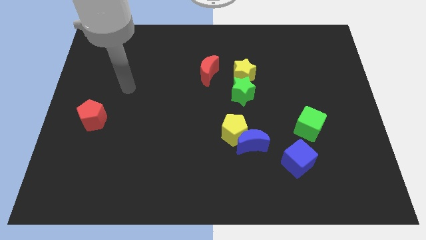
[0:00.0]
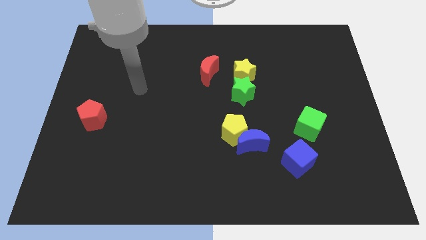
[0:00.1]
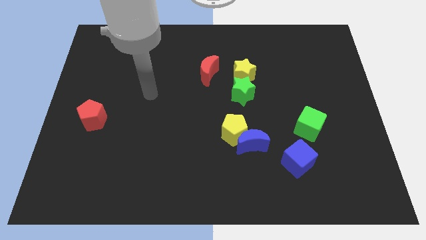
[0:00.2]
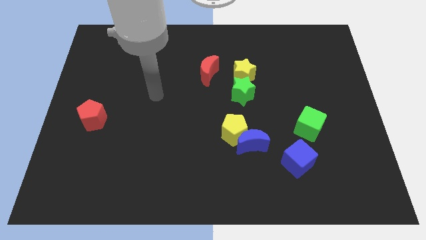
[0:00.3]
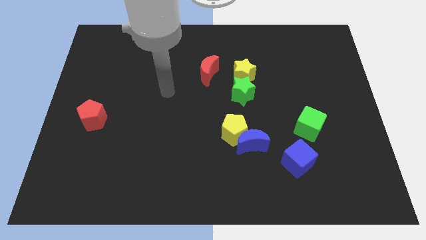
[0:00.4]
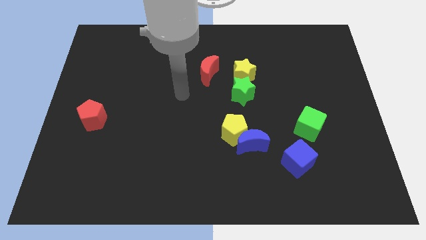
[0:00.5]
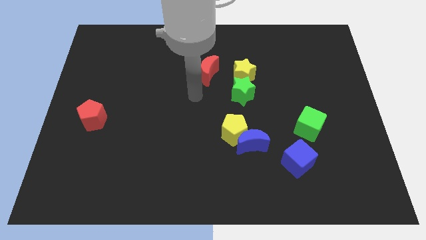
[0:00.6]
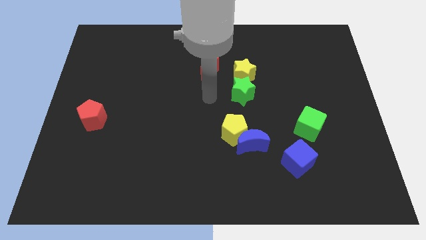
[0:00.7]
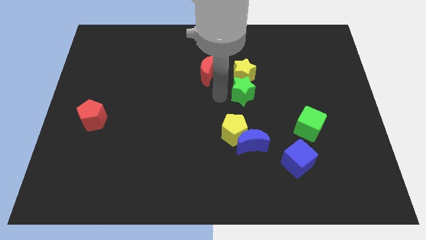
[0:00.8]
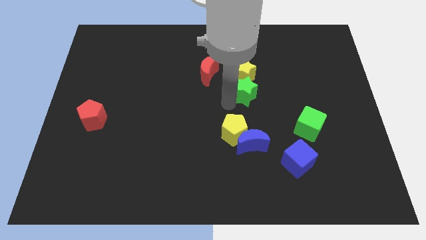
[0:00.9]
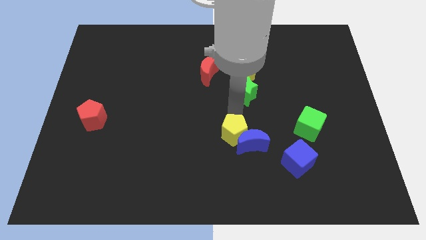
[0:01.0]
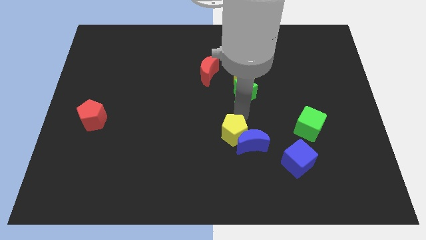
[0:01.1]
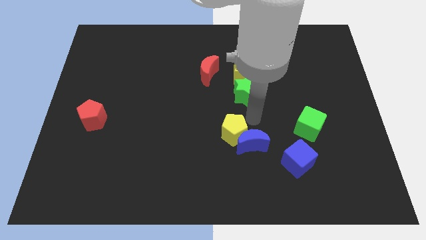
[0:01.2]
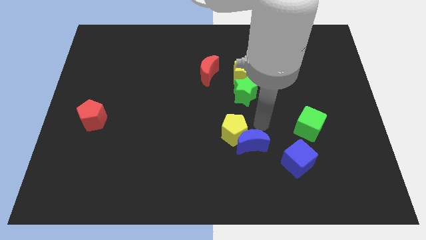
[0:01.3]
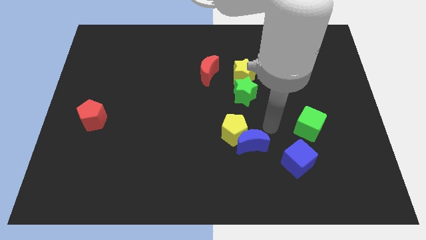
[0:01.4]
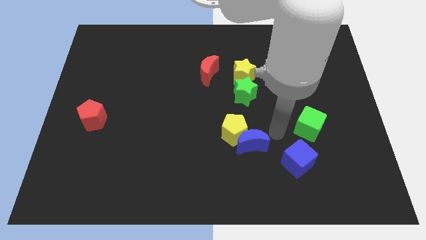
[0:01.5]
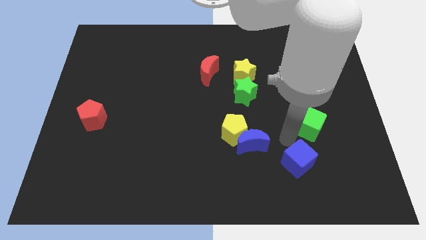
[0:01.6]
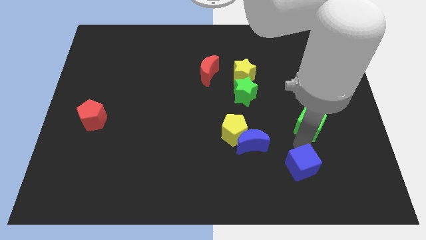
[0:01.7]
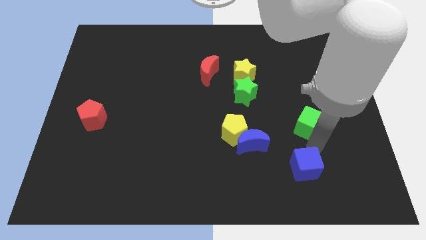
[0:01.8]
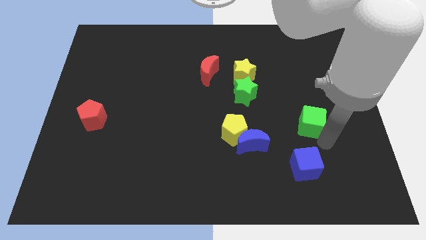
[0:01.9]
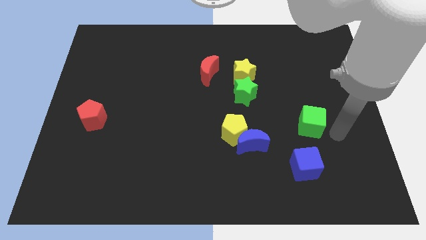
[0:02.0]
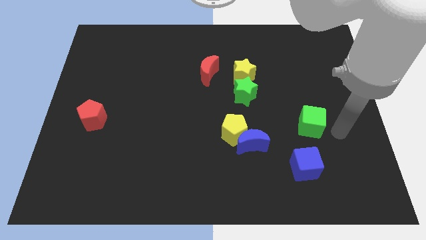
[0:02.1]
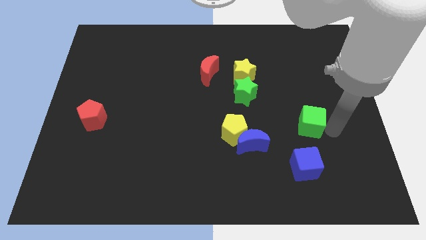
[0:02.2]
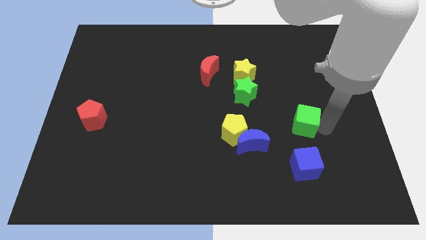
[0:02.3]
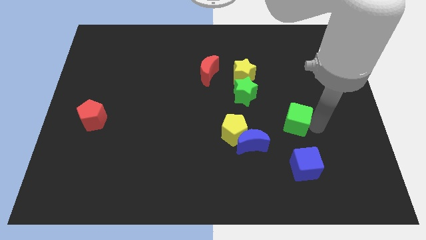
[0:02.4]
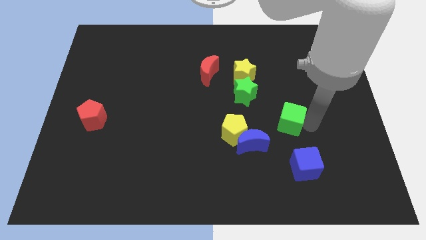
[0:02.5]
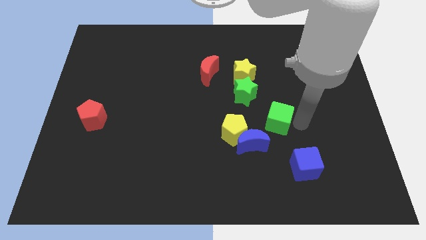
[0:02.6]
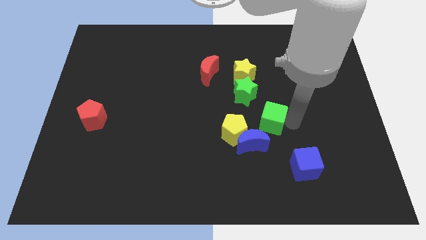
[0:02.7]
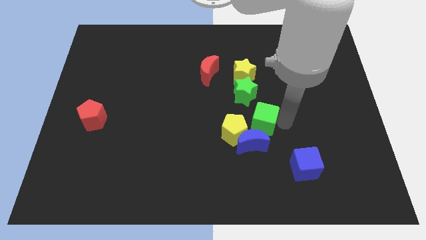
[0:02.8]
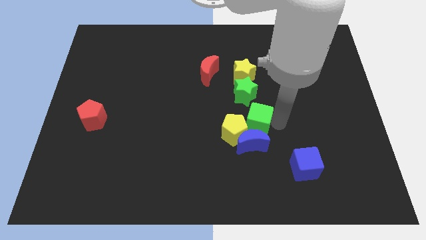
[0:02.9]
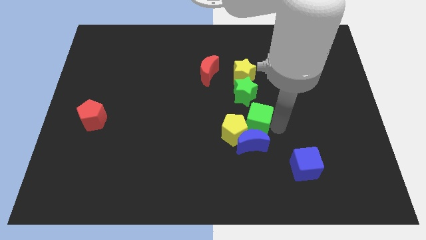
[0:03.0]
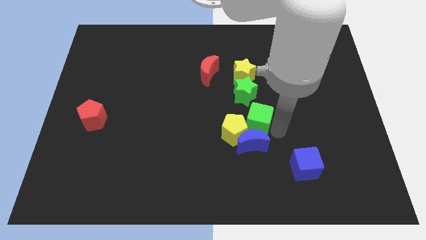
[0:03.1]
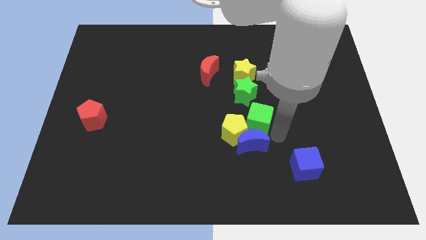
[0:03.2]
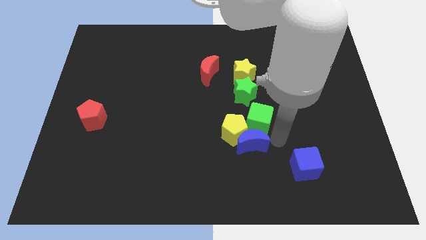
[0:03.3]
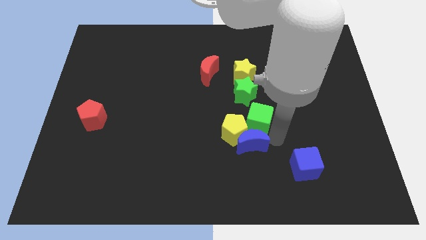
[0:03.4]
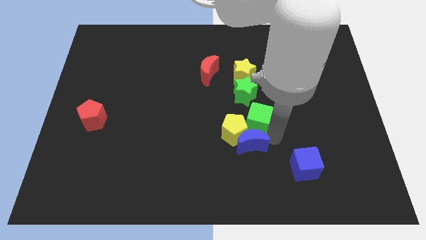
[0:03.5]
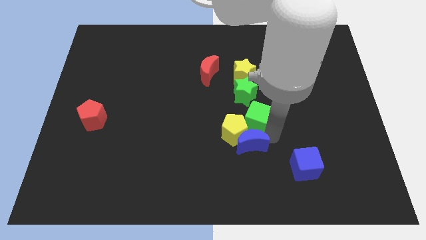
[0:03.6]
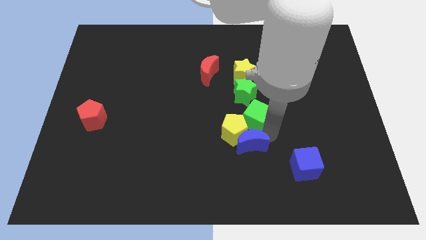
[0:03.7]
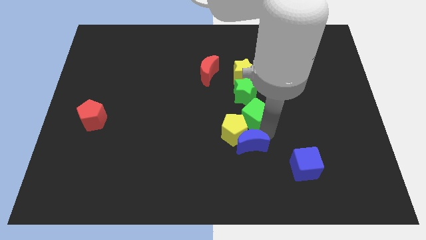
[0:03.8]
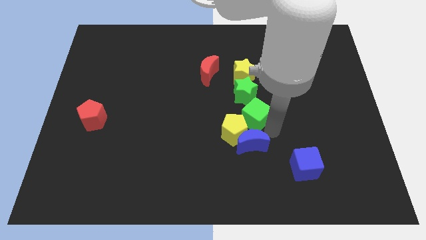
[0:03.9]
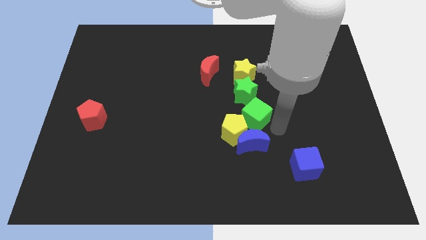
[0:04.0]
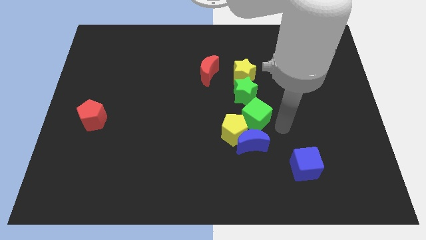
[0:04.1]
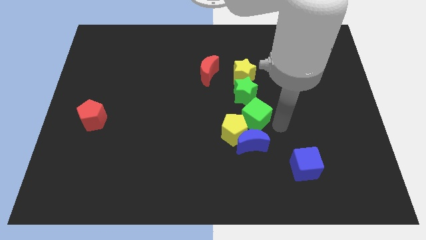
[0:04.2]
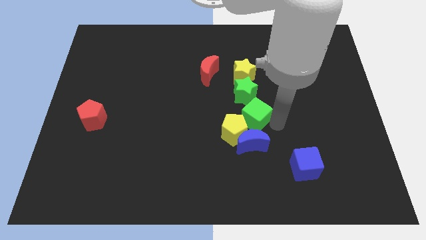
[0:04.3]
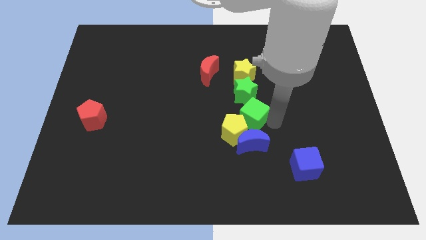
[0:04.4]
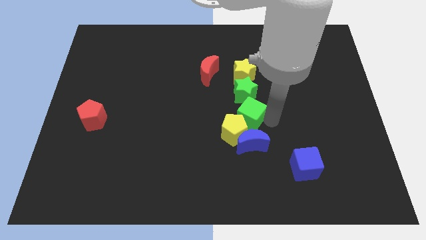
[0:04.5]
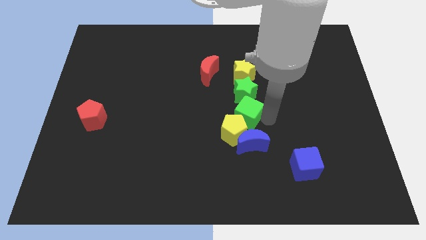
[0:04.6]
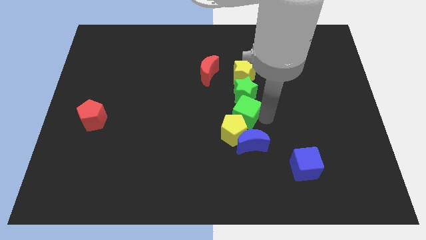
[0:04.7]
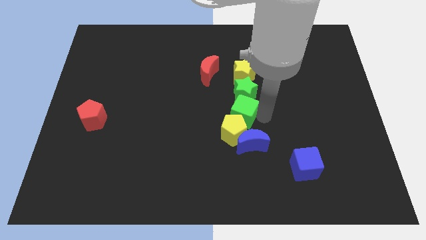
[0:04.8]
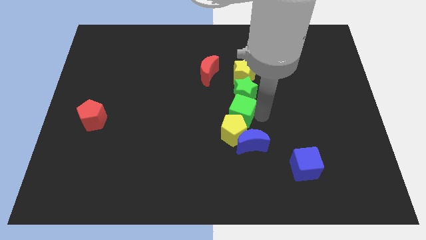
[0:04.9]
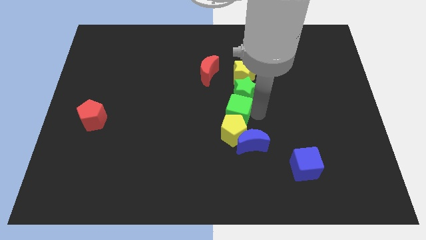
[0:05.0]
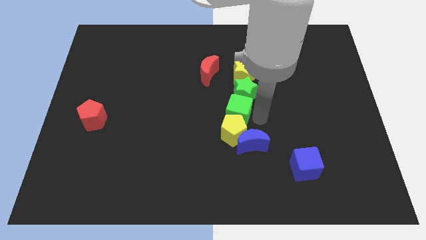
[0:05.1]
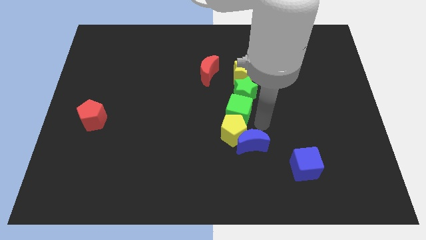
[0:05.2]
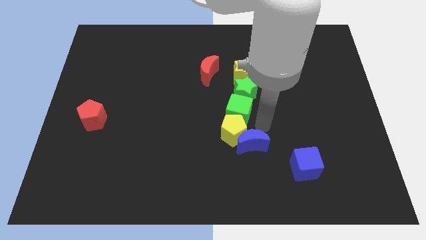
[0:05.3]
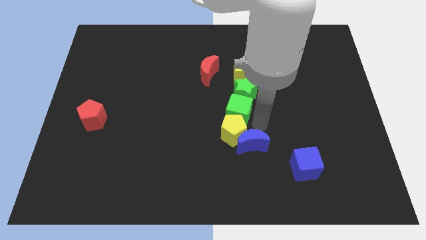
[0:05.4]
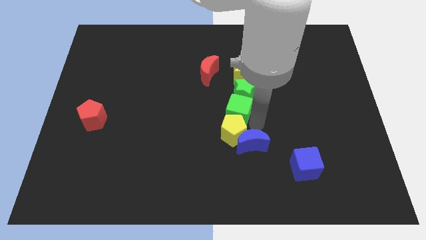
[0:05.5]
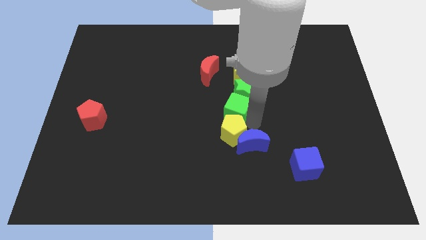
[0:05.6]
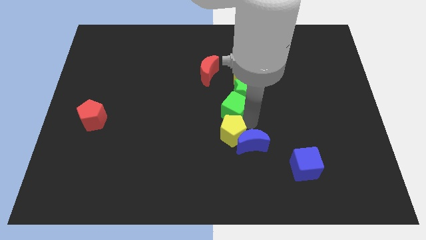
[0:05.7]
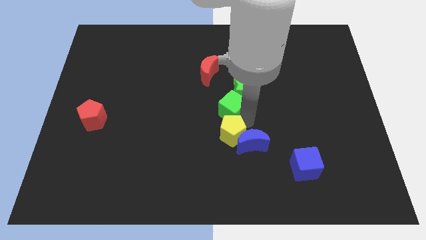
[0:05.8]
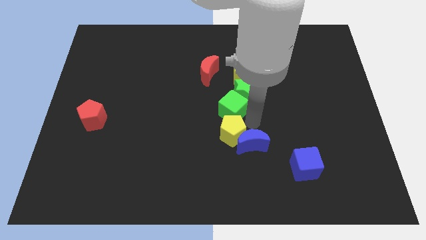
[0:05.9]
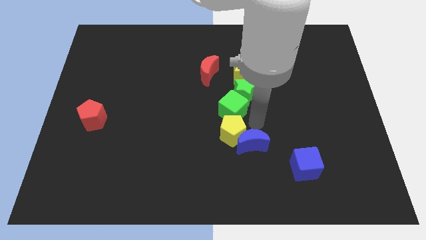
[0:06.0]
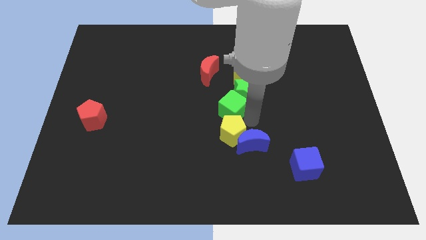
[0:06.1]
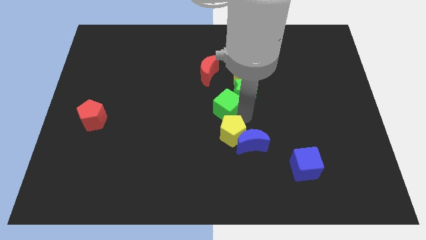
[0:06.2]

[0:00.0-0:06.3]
push the green cube to the left of the green star

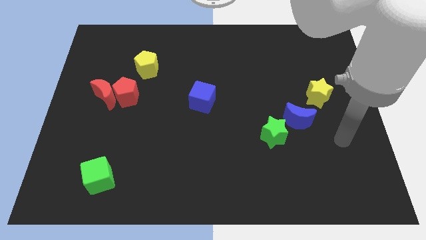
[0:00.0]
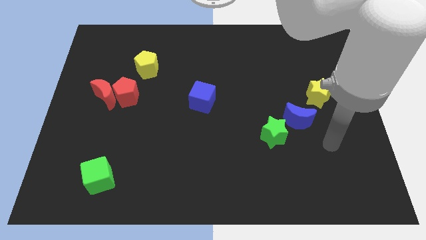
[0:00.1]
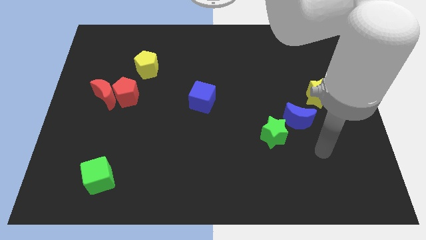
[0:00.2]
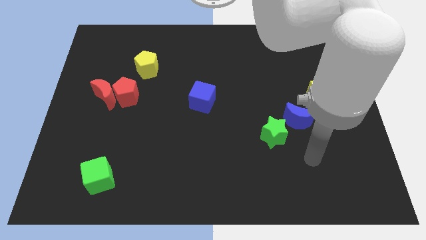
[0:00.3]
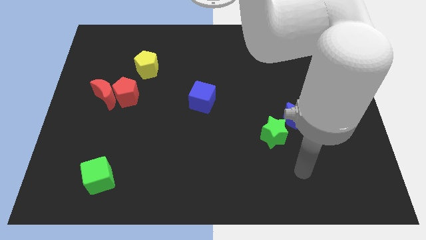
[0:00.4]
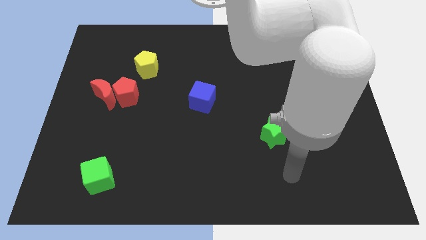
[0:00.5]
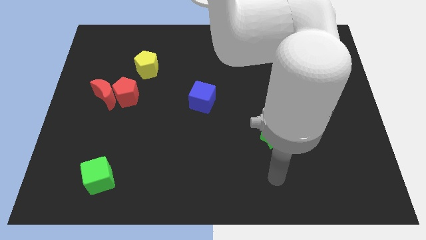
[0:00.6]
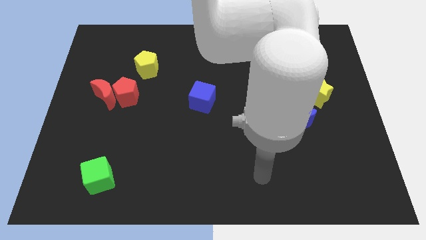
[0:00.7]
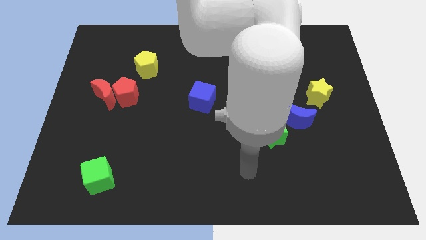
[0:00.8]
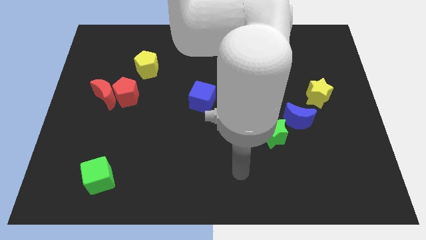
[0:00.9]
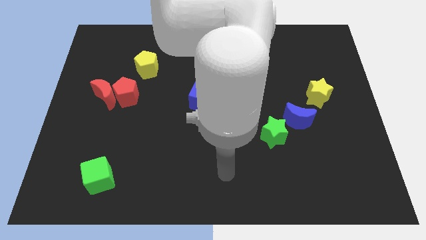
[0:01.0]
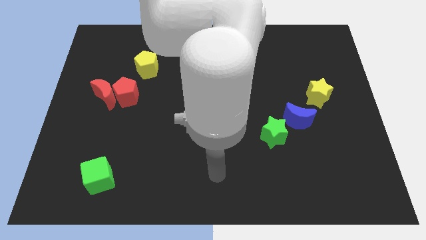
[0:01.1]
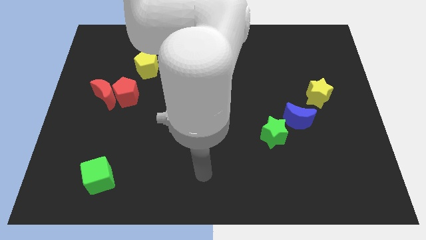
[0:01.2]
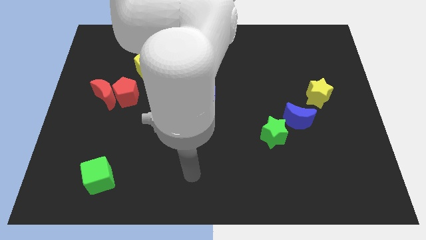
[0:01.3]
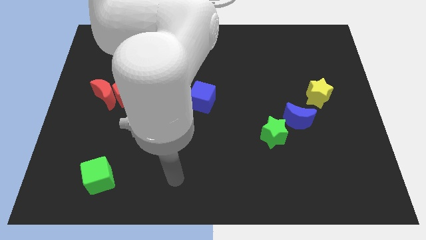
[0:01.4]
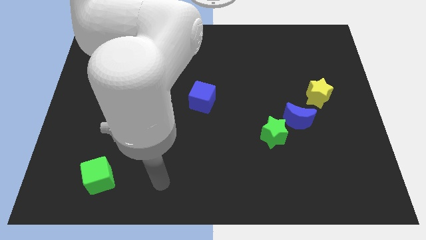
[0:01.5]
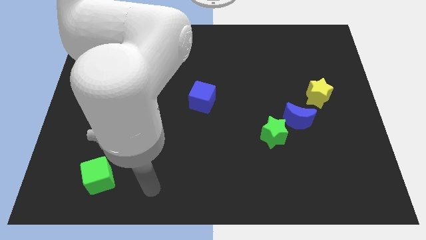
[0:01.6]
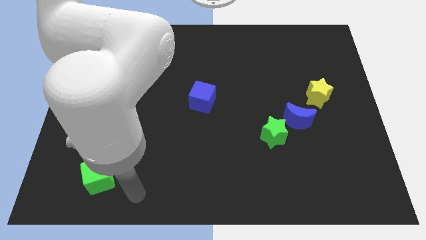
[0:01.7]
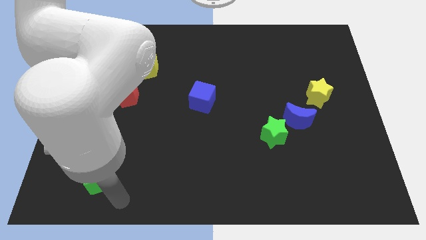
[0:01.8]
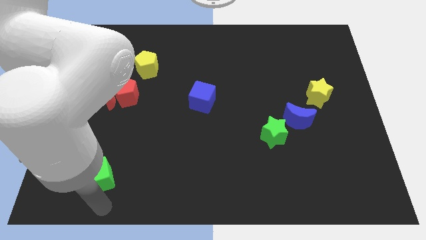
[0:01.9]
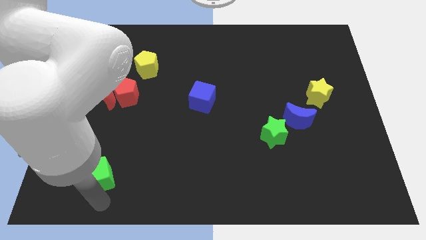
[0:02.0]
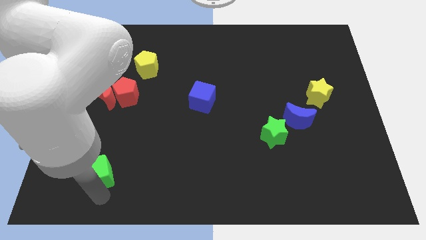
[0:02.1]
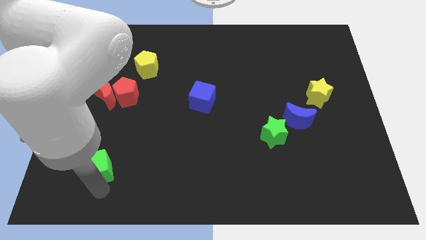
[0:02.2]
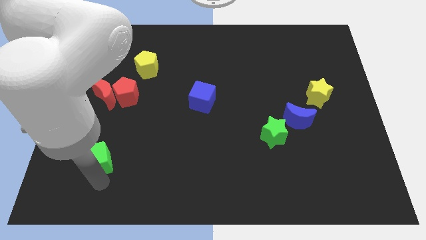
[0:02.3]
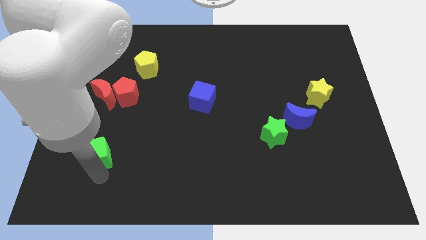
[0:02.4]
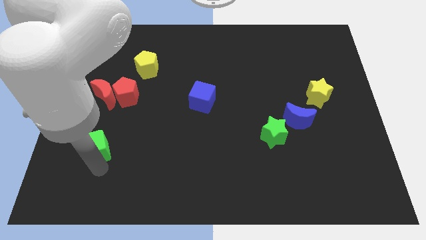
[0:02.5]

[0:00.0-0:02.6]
push the green cube below the red moon
